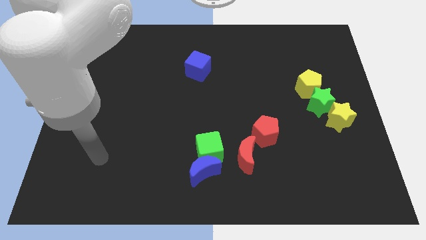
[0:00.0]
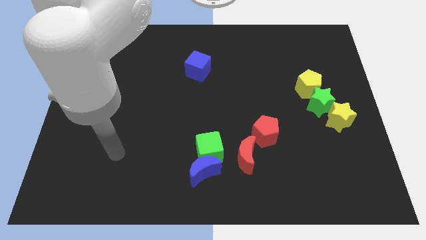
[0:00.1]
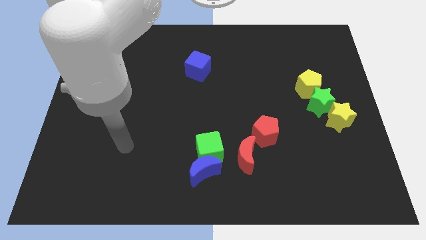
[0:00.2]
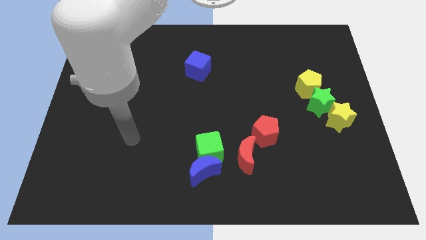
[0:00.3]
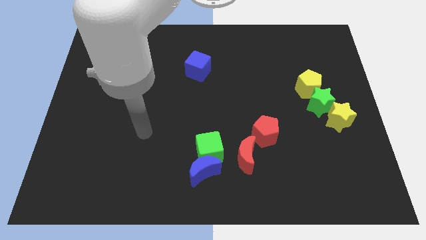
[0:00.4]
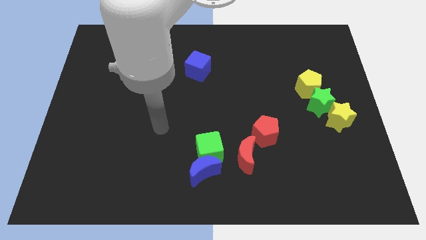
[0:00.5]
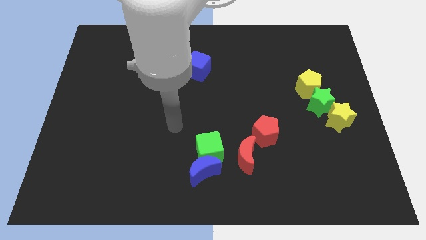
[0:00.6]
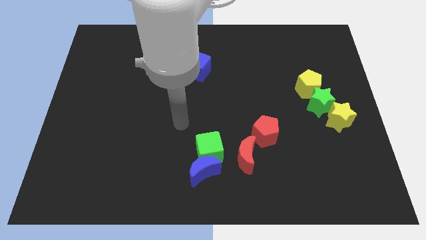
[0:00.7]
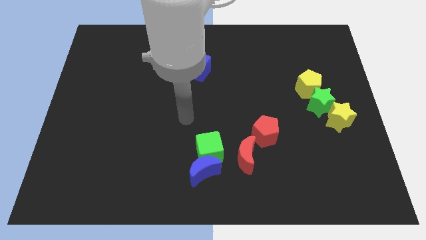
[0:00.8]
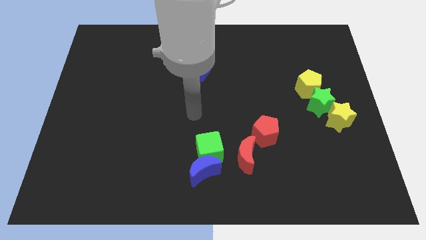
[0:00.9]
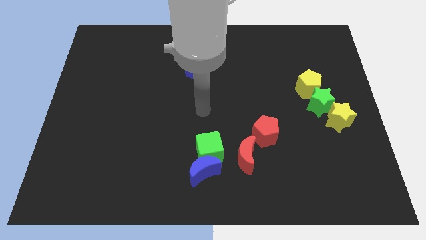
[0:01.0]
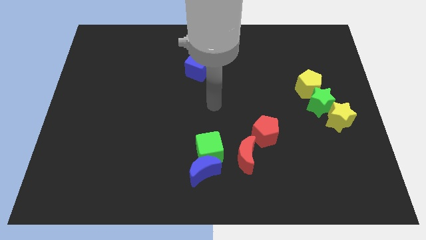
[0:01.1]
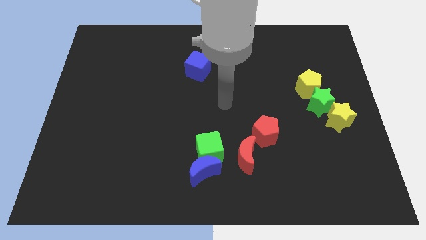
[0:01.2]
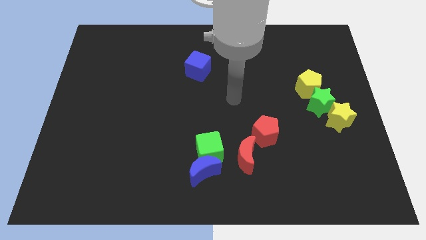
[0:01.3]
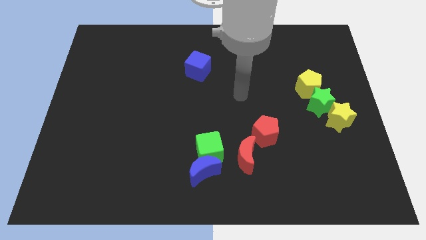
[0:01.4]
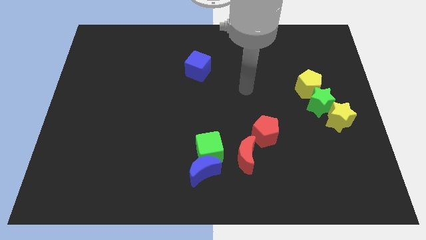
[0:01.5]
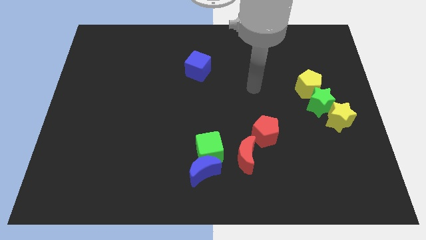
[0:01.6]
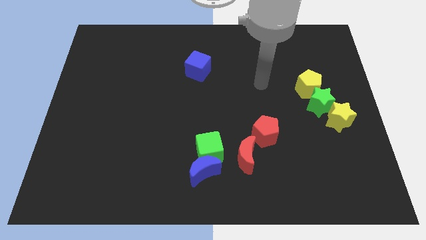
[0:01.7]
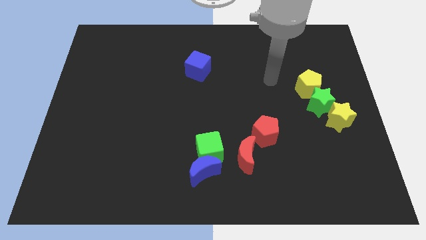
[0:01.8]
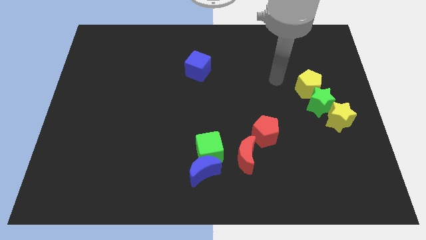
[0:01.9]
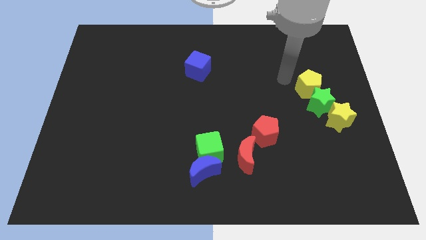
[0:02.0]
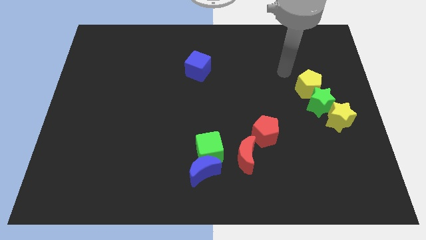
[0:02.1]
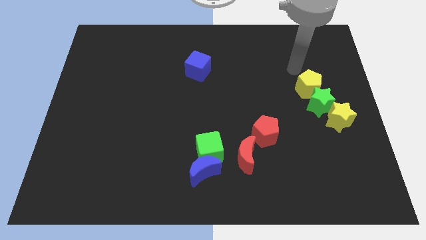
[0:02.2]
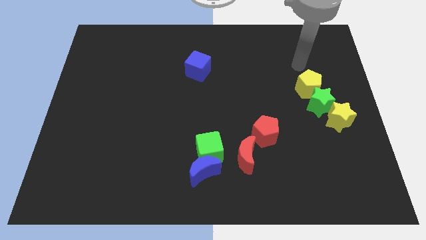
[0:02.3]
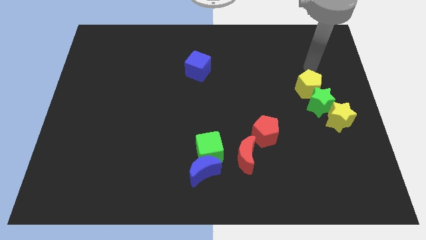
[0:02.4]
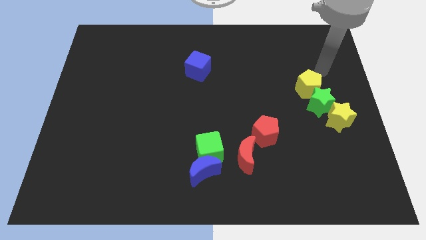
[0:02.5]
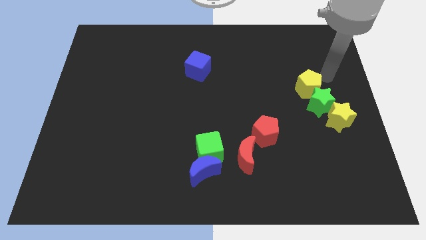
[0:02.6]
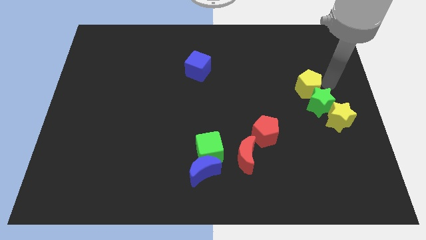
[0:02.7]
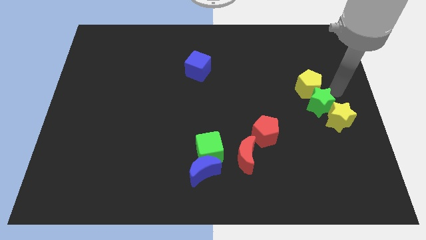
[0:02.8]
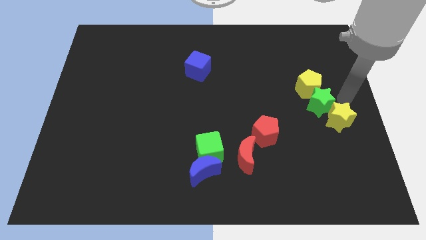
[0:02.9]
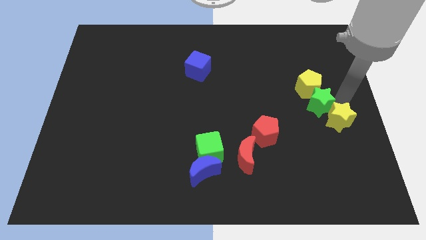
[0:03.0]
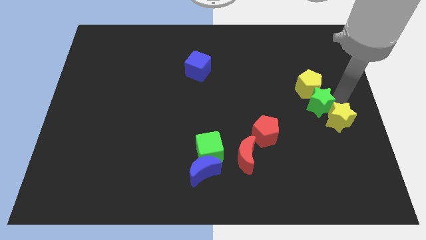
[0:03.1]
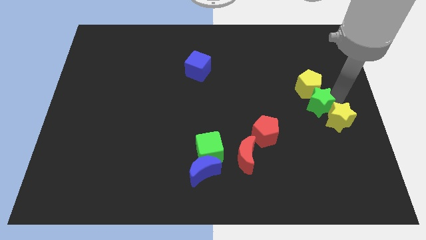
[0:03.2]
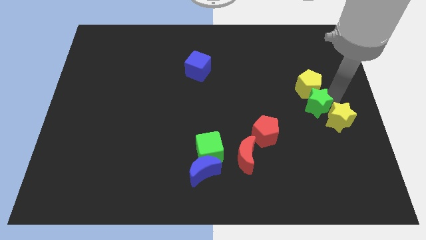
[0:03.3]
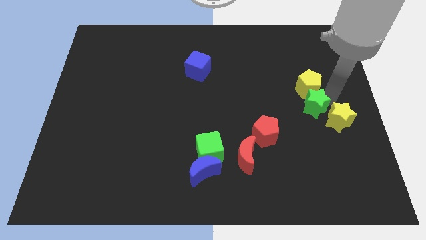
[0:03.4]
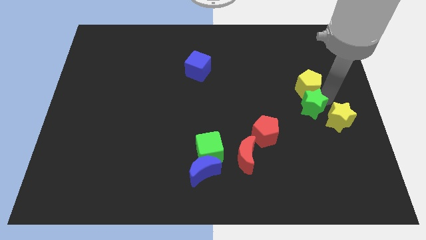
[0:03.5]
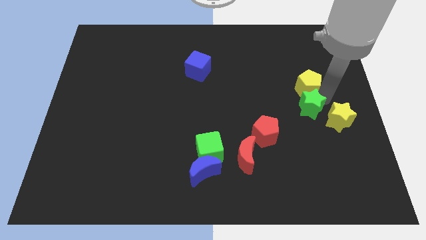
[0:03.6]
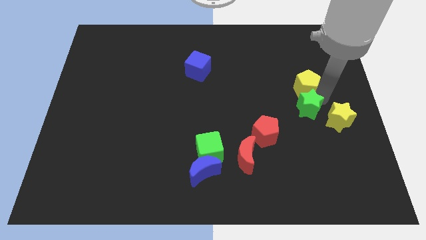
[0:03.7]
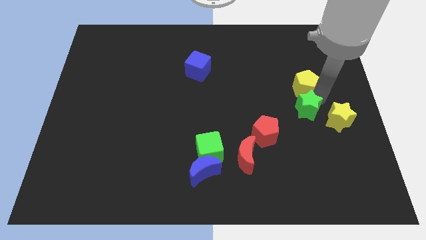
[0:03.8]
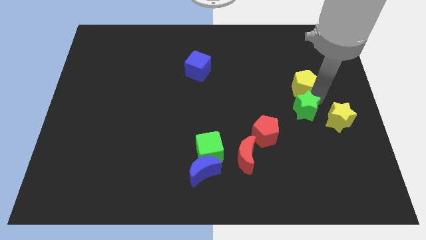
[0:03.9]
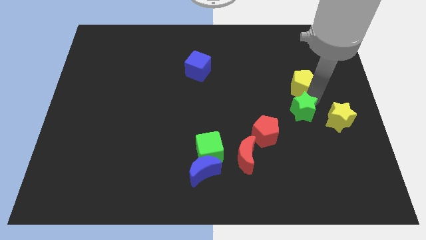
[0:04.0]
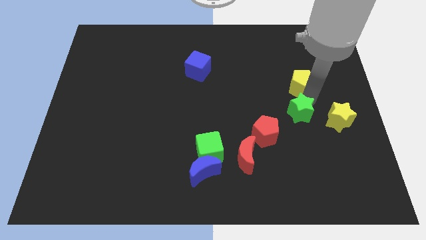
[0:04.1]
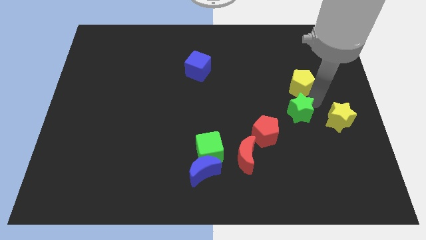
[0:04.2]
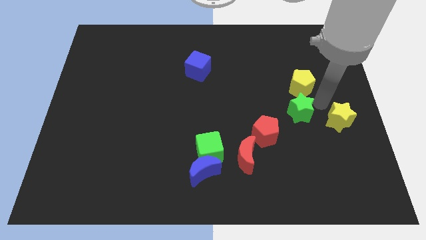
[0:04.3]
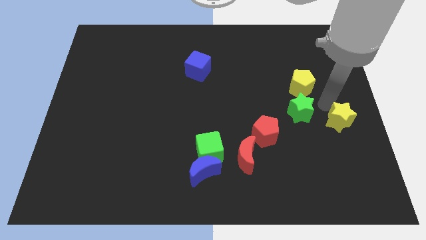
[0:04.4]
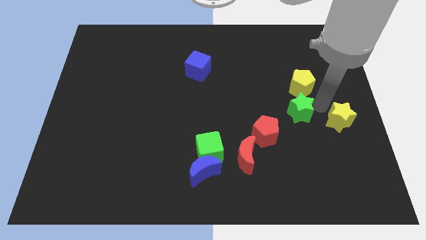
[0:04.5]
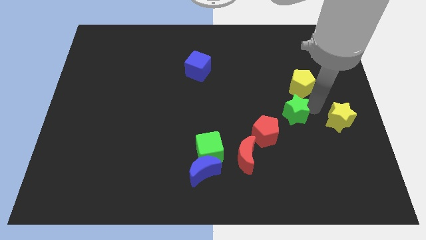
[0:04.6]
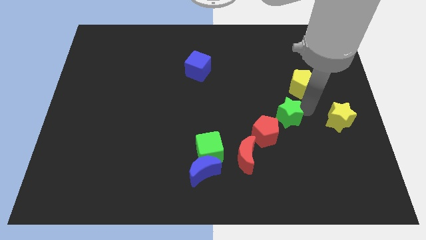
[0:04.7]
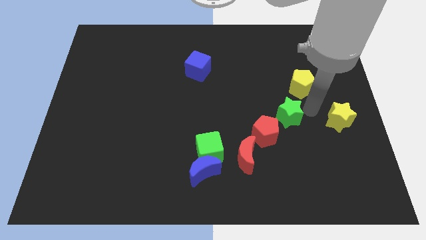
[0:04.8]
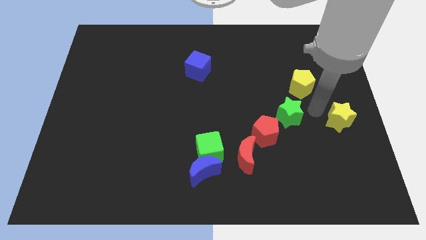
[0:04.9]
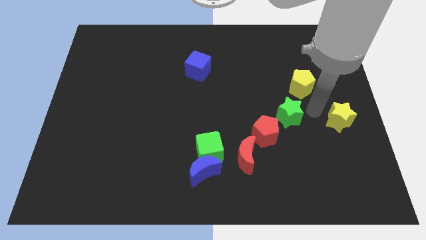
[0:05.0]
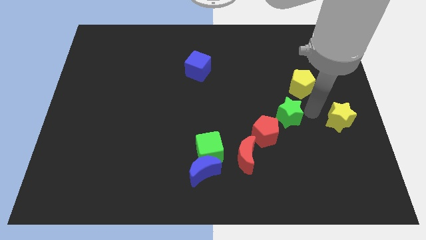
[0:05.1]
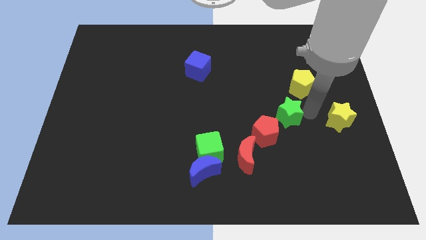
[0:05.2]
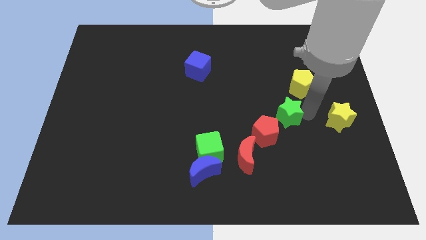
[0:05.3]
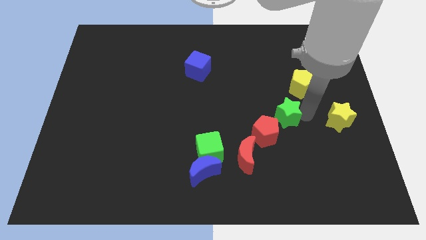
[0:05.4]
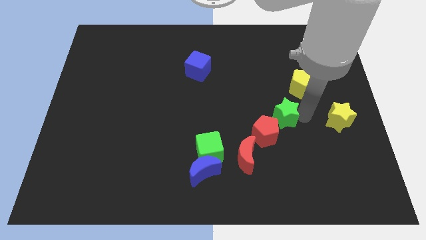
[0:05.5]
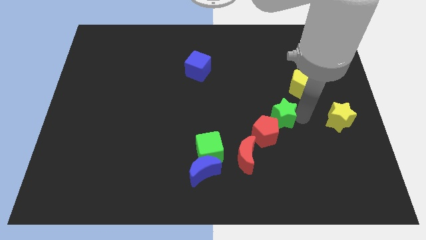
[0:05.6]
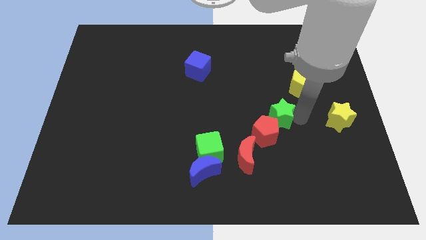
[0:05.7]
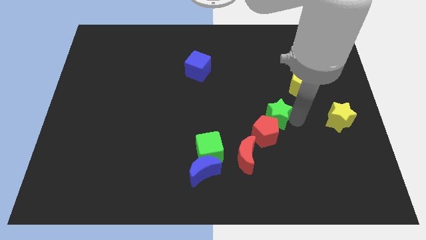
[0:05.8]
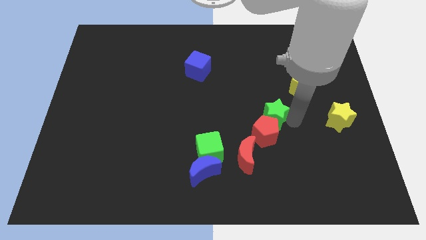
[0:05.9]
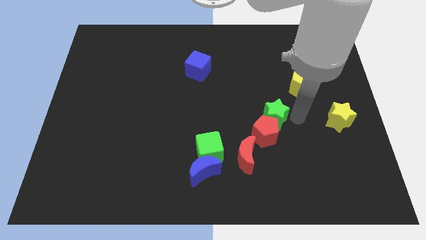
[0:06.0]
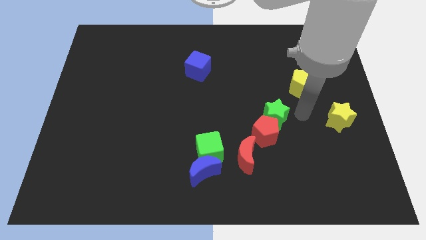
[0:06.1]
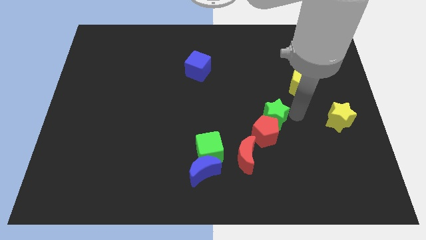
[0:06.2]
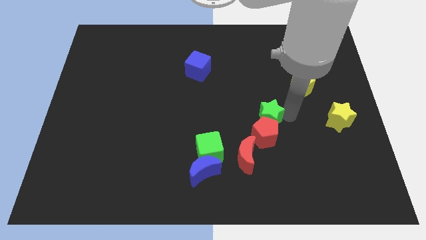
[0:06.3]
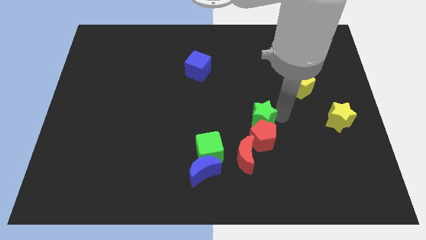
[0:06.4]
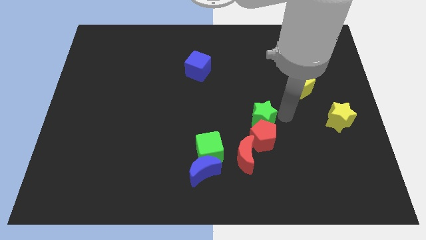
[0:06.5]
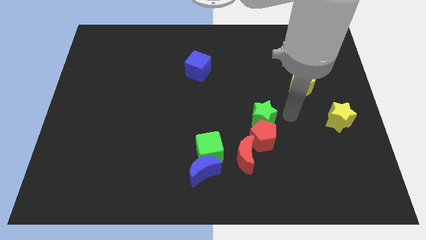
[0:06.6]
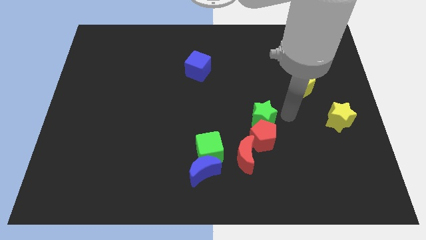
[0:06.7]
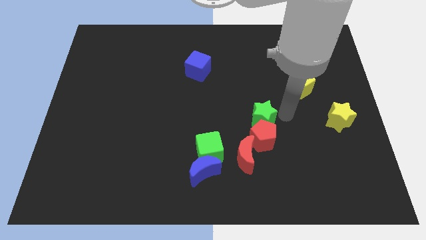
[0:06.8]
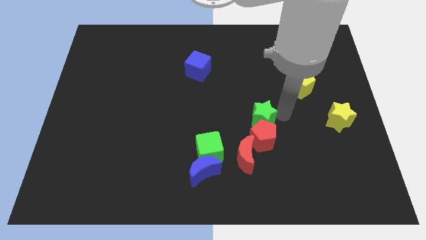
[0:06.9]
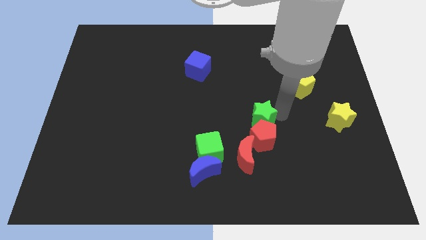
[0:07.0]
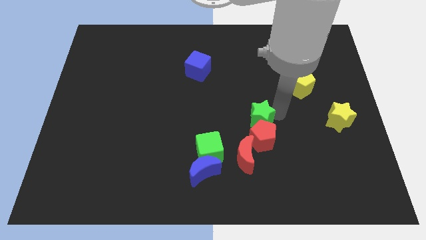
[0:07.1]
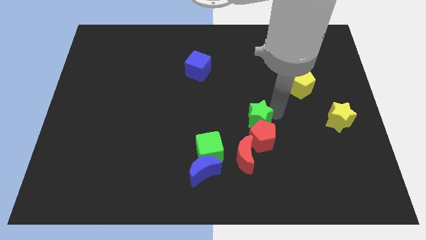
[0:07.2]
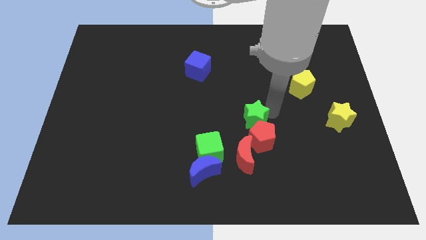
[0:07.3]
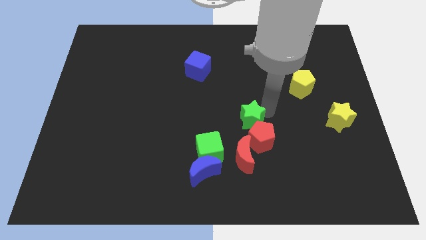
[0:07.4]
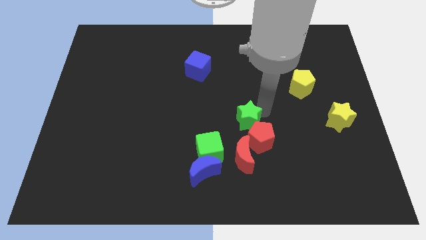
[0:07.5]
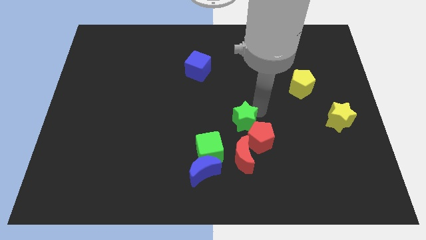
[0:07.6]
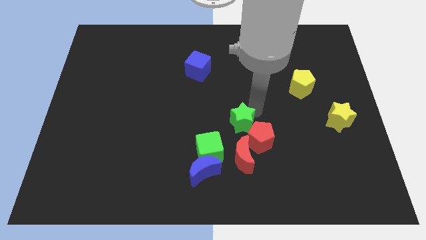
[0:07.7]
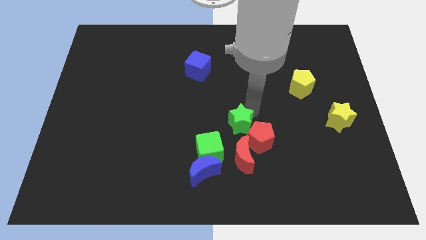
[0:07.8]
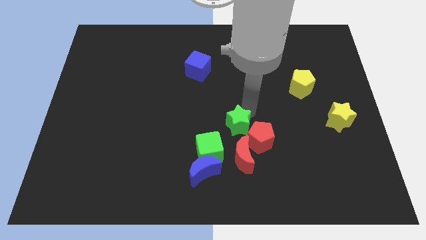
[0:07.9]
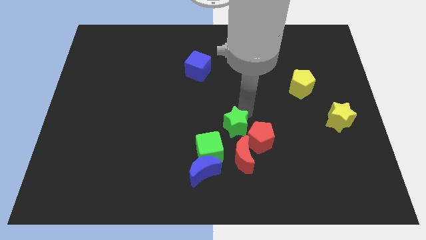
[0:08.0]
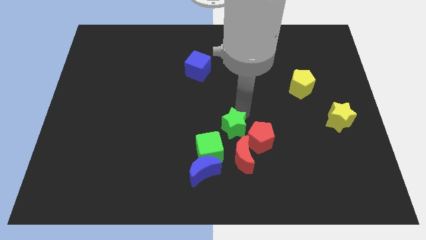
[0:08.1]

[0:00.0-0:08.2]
move the green star to the top left of the red moon
